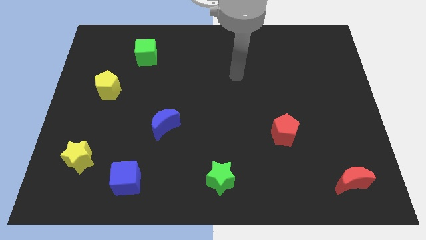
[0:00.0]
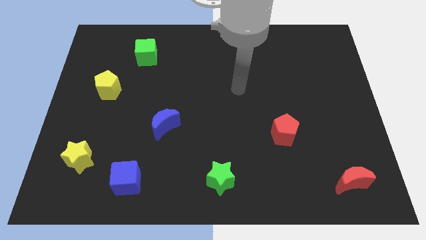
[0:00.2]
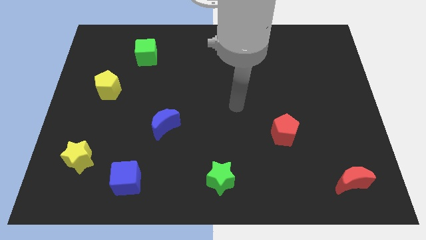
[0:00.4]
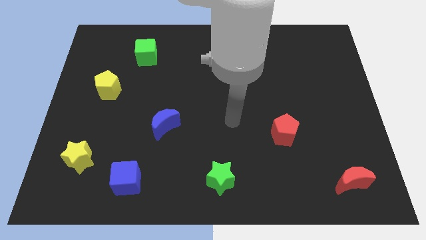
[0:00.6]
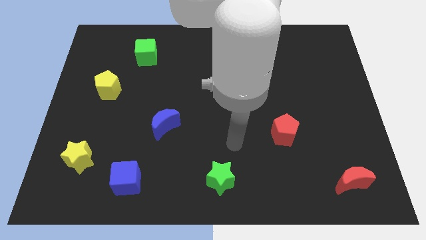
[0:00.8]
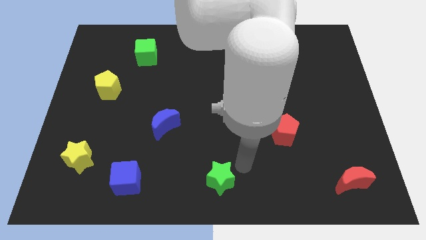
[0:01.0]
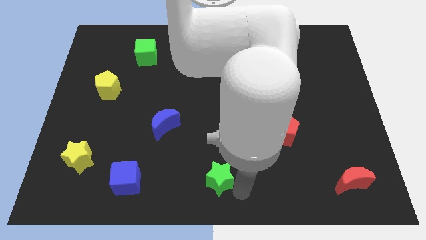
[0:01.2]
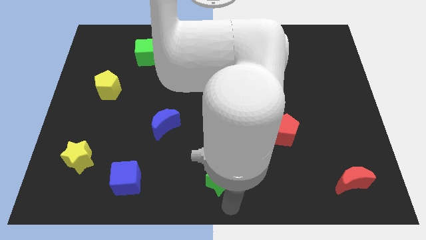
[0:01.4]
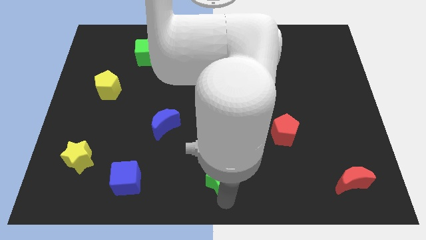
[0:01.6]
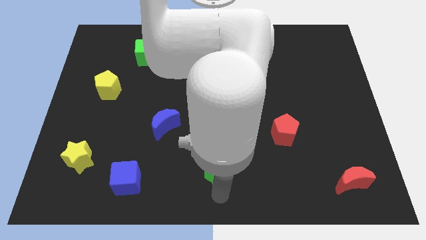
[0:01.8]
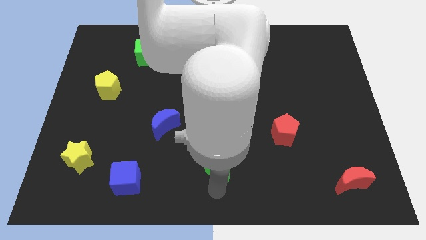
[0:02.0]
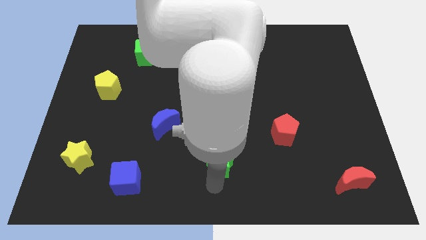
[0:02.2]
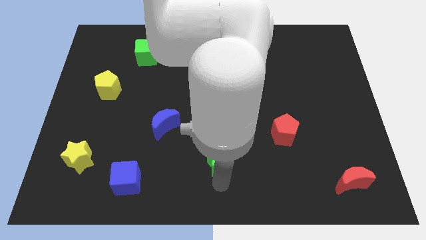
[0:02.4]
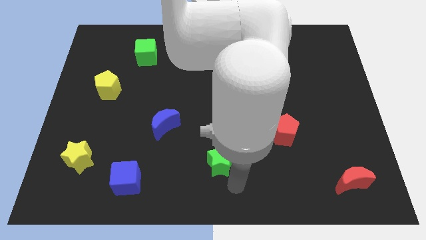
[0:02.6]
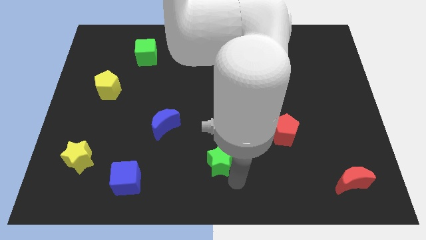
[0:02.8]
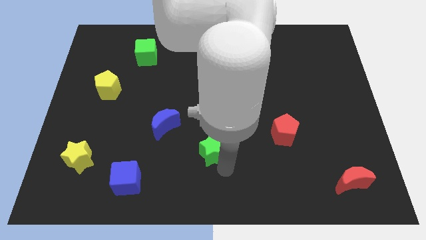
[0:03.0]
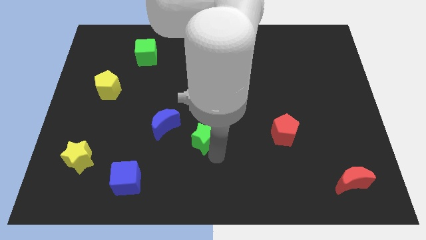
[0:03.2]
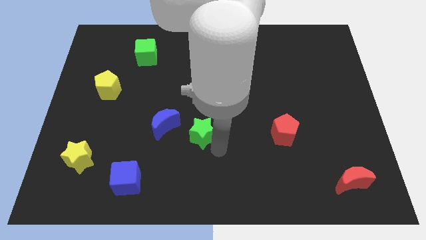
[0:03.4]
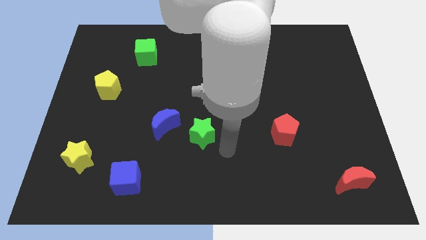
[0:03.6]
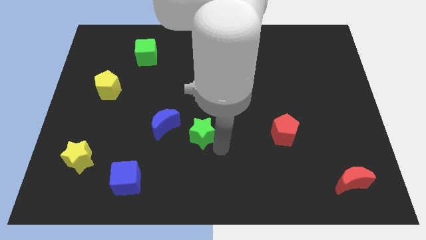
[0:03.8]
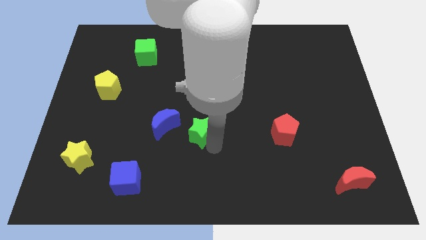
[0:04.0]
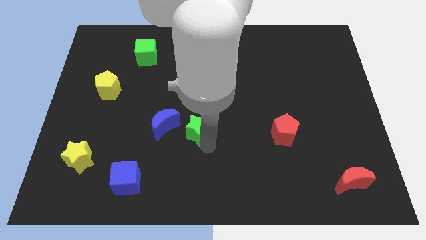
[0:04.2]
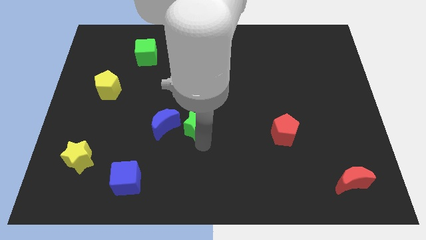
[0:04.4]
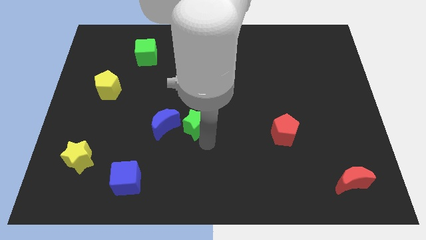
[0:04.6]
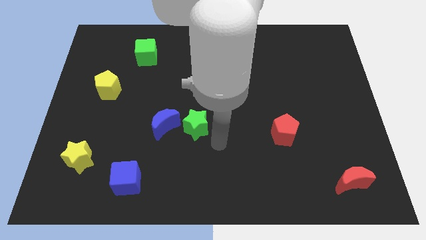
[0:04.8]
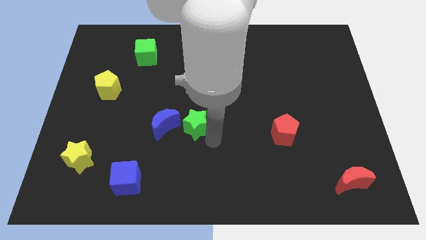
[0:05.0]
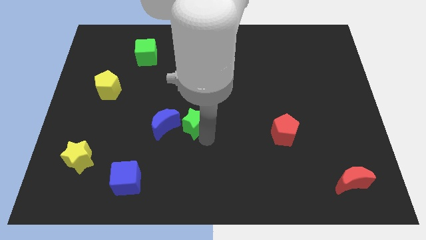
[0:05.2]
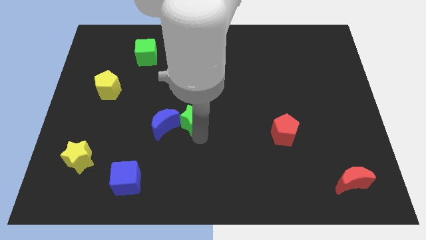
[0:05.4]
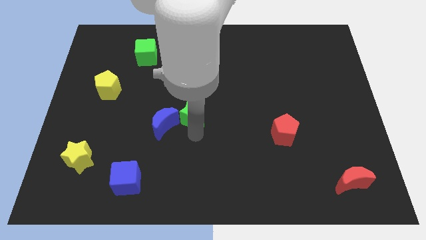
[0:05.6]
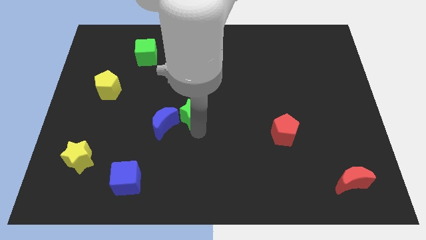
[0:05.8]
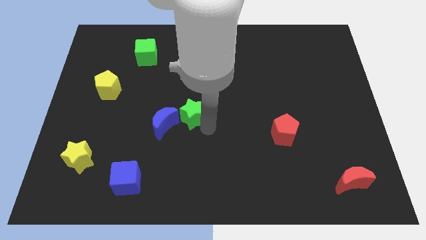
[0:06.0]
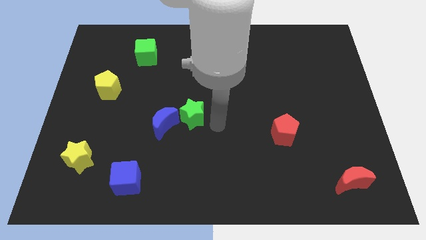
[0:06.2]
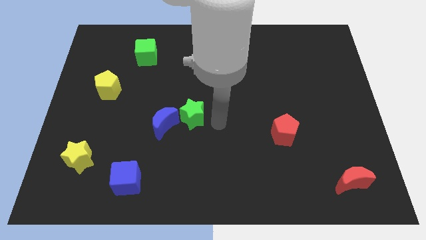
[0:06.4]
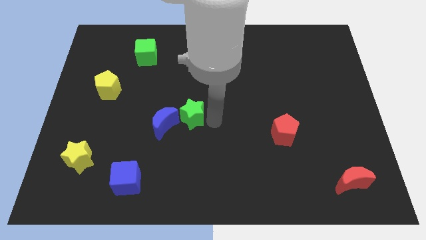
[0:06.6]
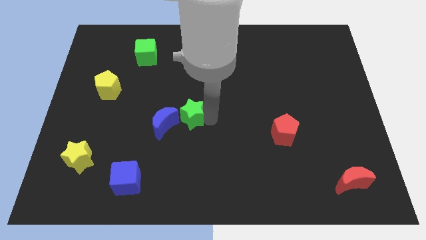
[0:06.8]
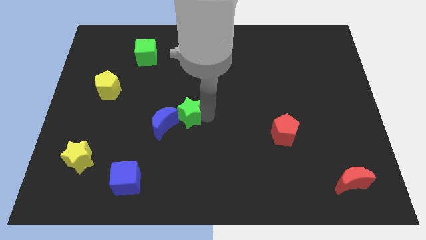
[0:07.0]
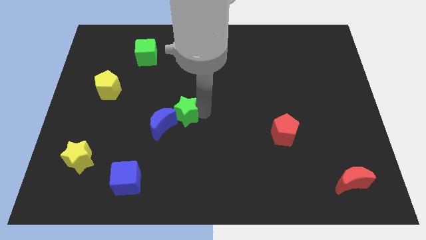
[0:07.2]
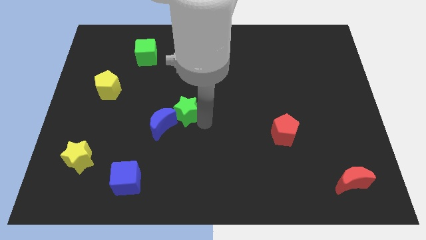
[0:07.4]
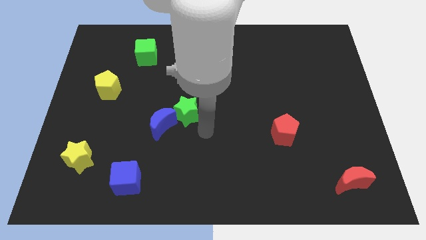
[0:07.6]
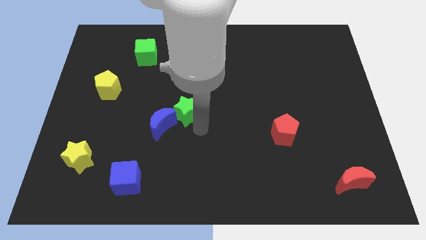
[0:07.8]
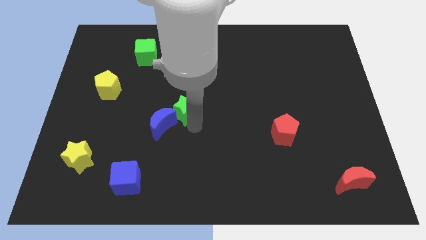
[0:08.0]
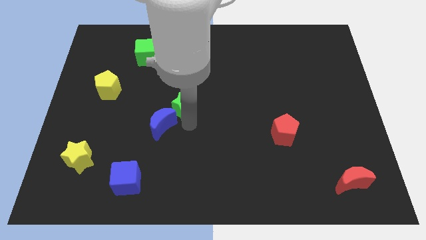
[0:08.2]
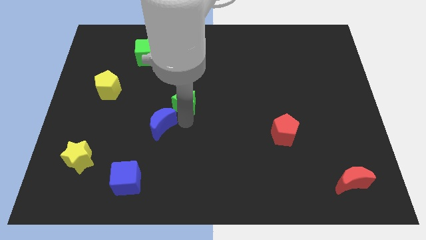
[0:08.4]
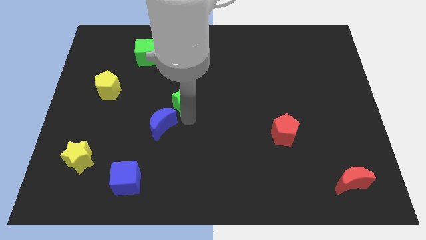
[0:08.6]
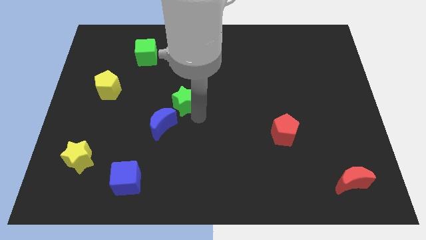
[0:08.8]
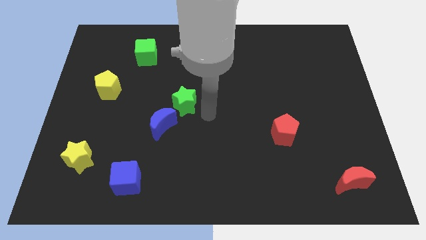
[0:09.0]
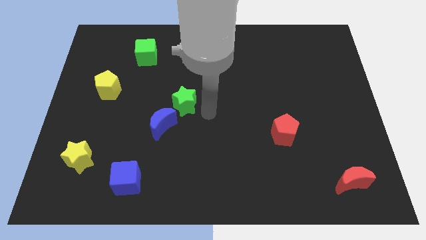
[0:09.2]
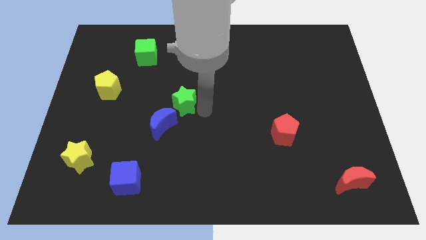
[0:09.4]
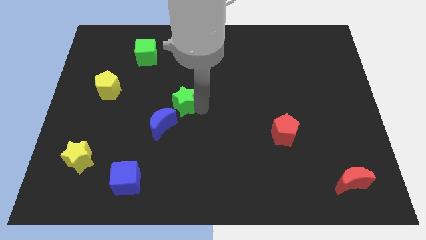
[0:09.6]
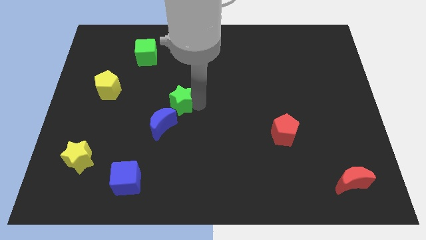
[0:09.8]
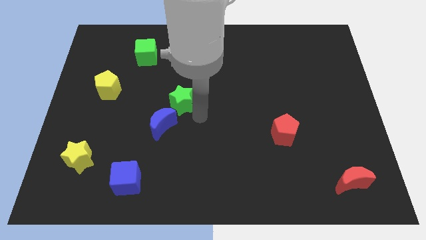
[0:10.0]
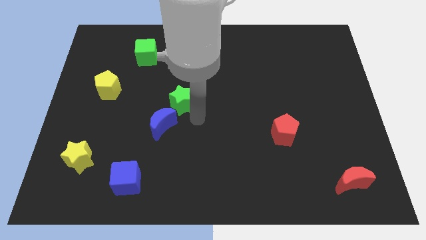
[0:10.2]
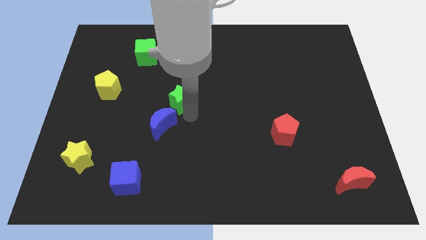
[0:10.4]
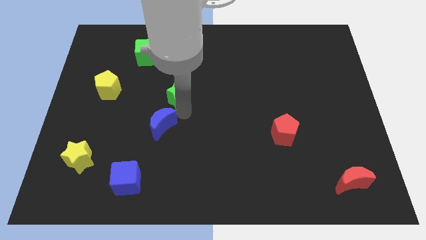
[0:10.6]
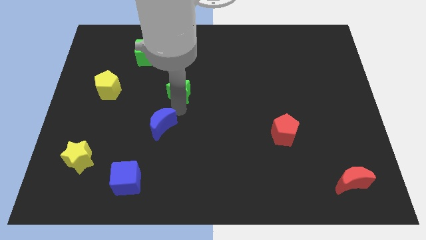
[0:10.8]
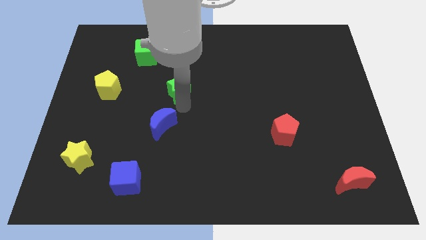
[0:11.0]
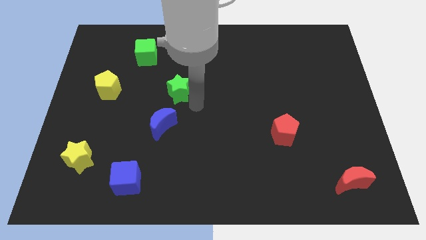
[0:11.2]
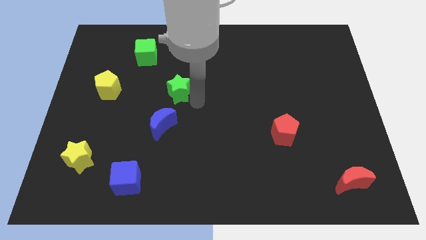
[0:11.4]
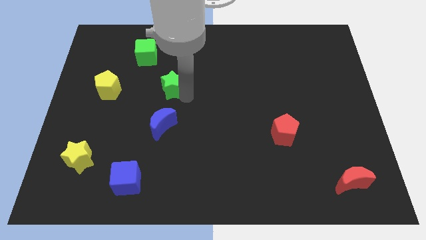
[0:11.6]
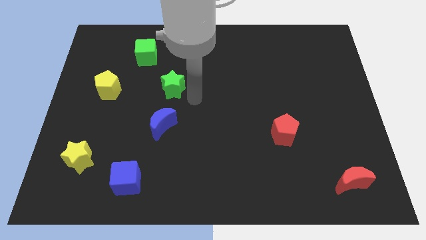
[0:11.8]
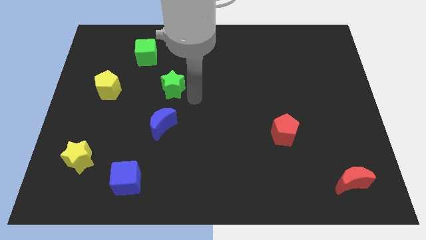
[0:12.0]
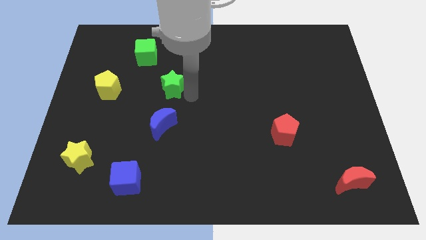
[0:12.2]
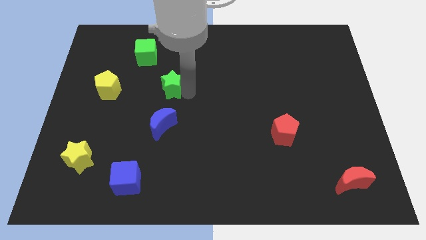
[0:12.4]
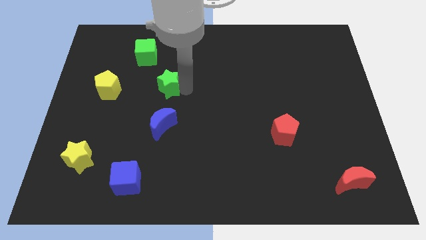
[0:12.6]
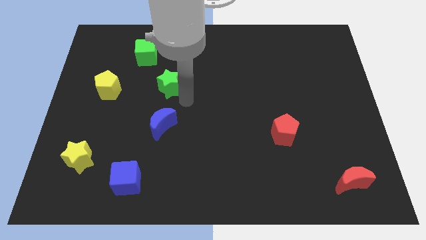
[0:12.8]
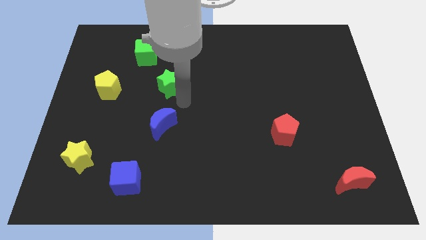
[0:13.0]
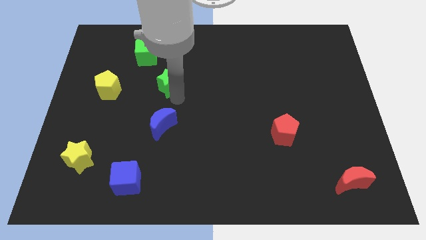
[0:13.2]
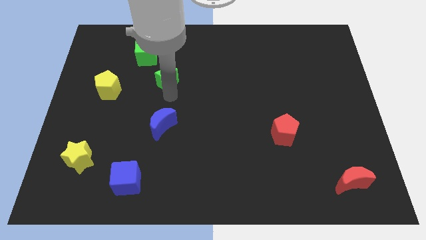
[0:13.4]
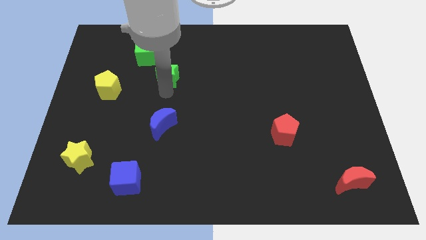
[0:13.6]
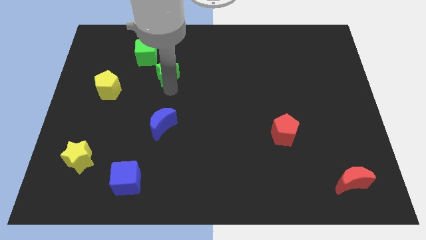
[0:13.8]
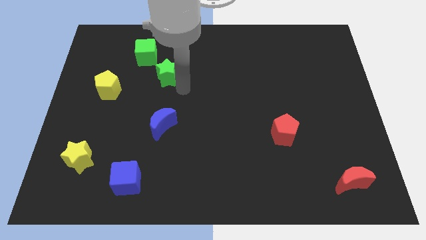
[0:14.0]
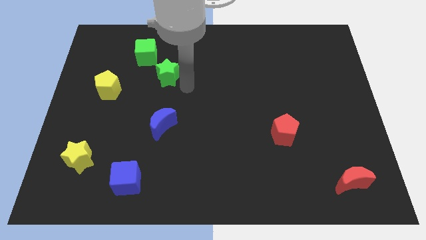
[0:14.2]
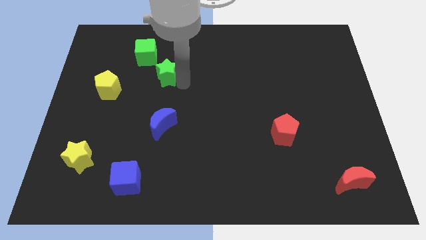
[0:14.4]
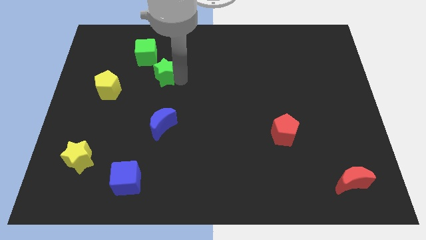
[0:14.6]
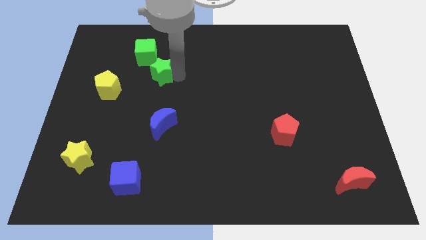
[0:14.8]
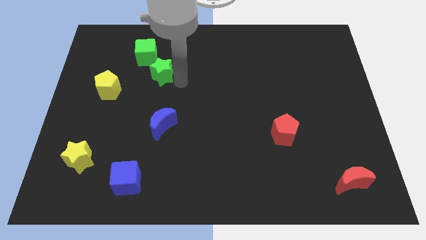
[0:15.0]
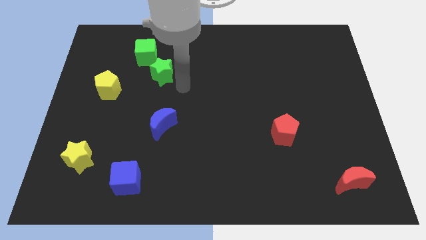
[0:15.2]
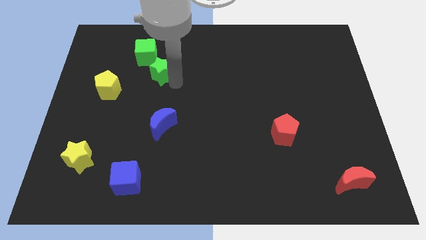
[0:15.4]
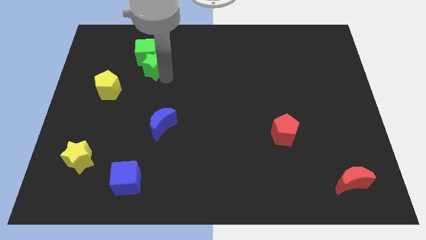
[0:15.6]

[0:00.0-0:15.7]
push the green star to the green cube
